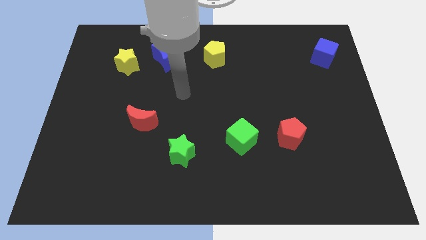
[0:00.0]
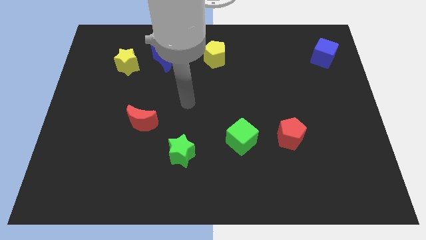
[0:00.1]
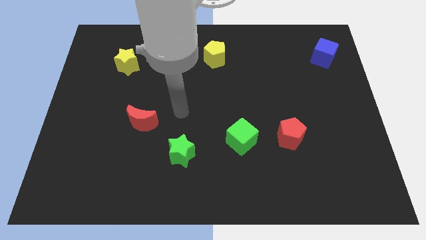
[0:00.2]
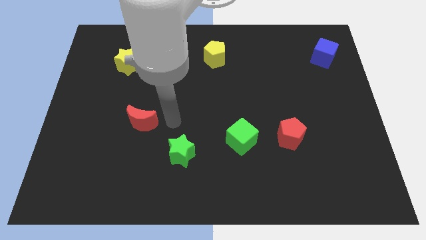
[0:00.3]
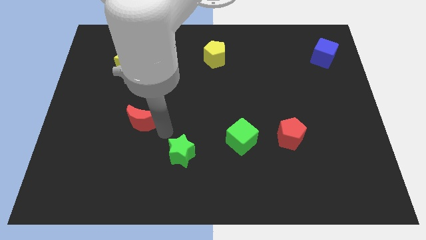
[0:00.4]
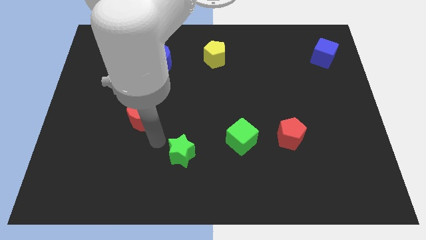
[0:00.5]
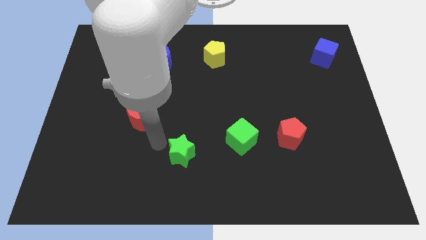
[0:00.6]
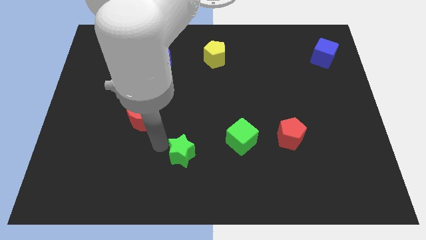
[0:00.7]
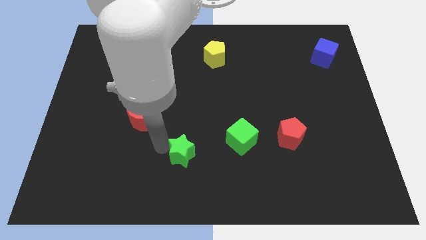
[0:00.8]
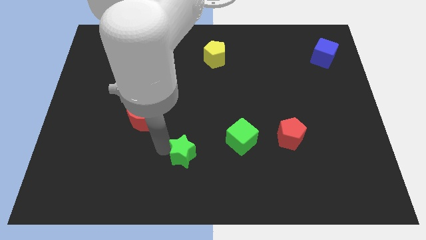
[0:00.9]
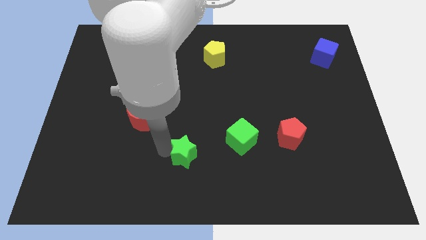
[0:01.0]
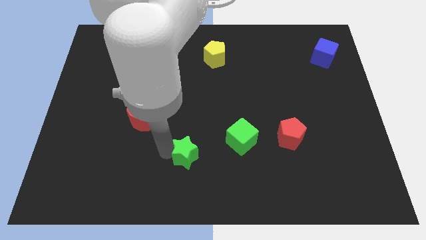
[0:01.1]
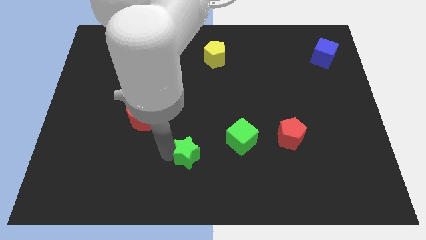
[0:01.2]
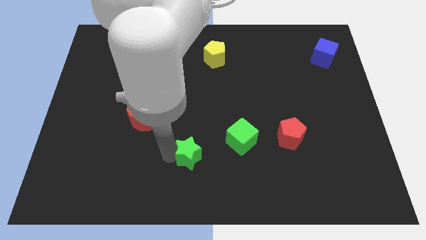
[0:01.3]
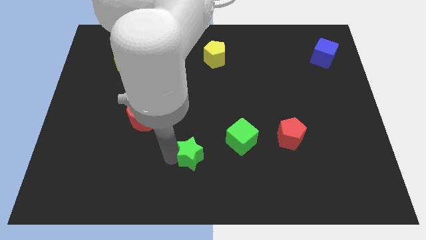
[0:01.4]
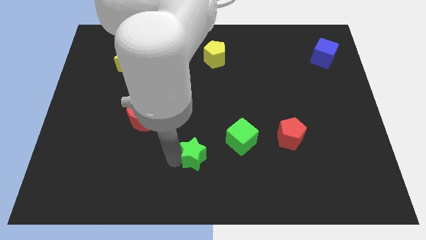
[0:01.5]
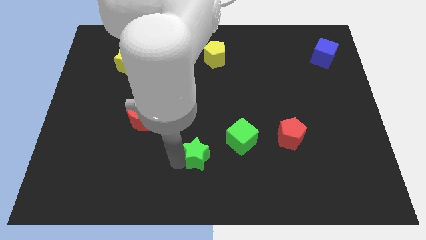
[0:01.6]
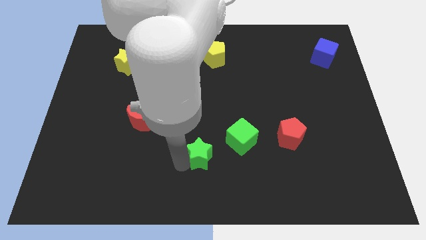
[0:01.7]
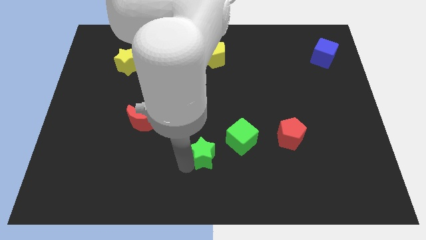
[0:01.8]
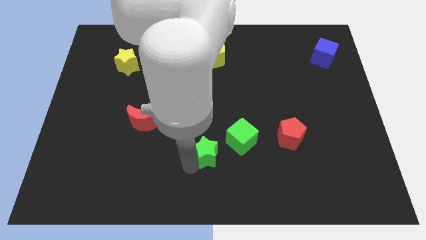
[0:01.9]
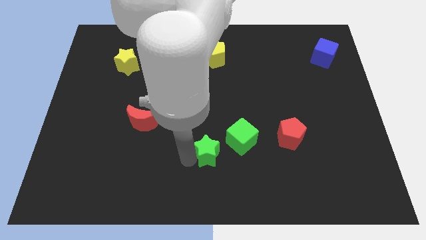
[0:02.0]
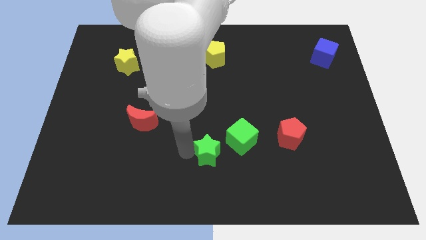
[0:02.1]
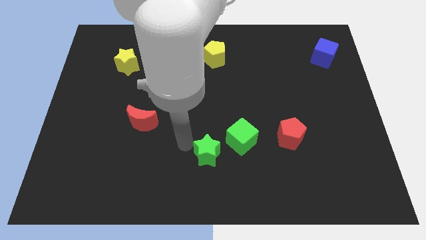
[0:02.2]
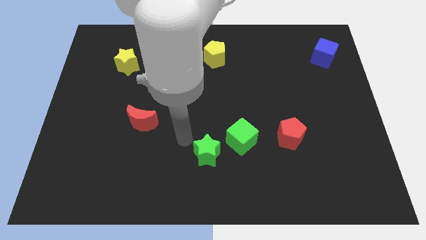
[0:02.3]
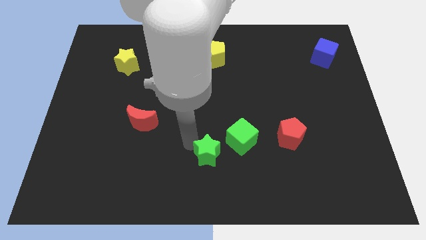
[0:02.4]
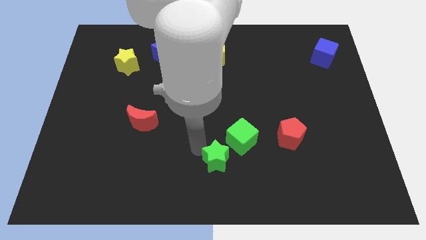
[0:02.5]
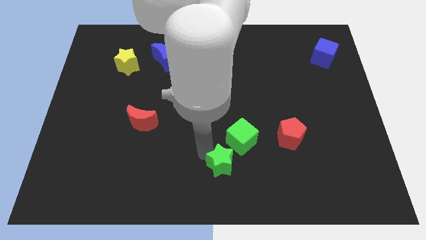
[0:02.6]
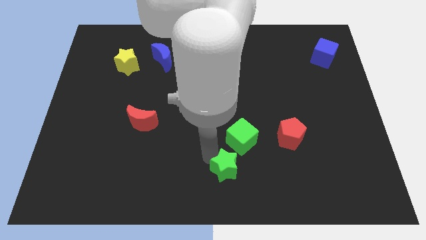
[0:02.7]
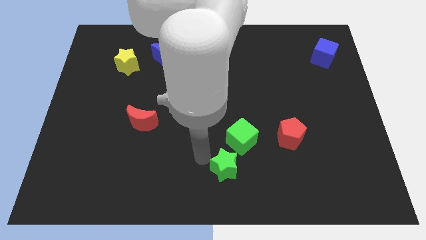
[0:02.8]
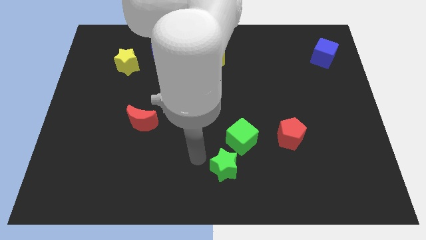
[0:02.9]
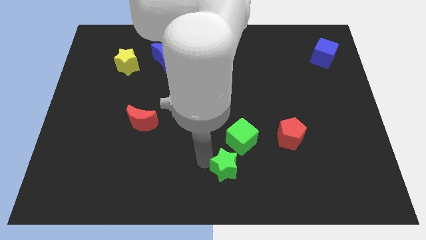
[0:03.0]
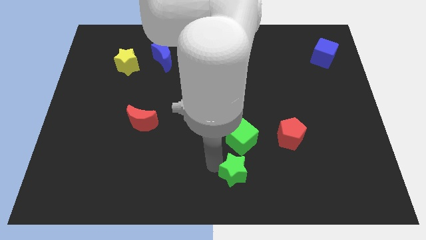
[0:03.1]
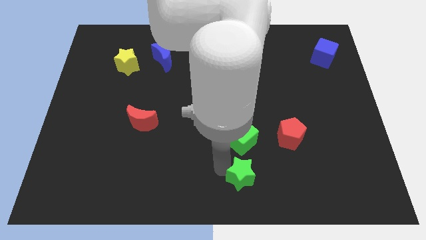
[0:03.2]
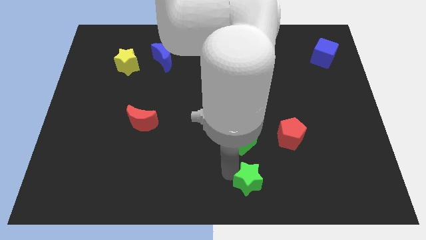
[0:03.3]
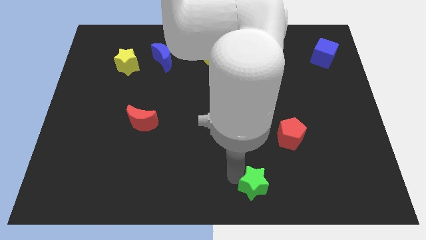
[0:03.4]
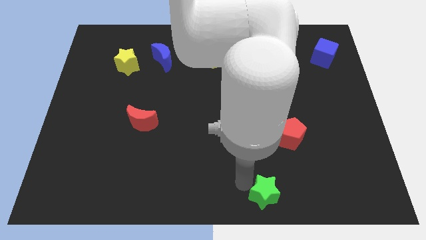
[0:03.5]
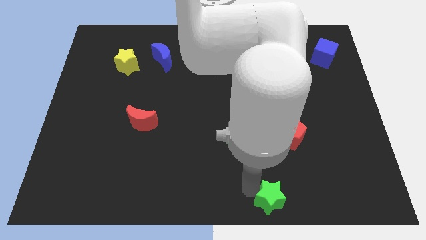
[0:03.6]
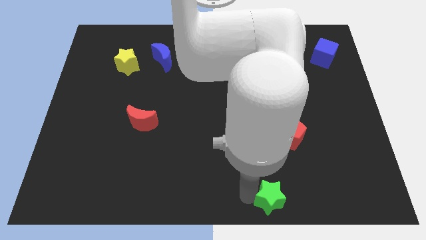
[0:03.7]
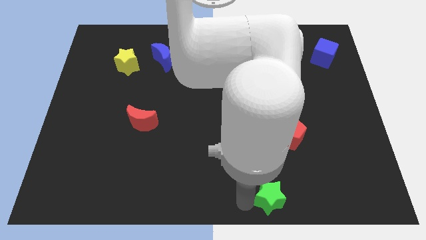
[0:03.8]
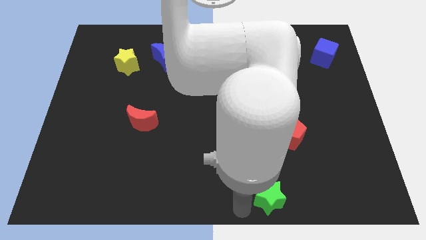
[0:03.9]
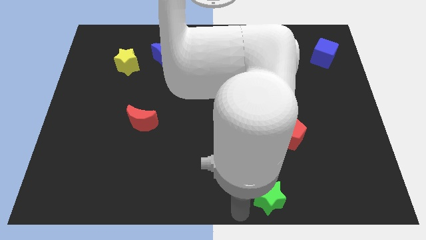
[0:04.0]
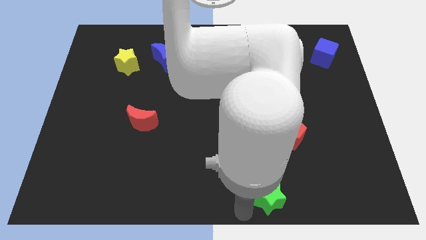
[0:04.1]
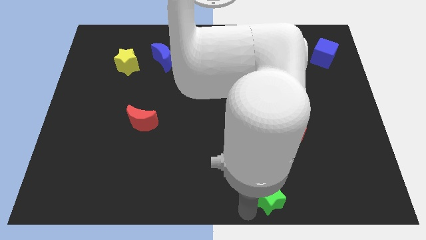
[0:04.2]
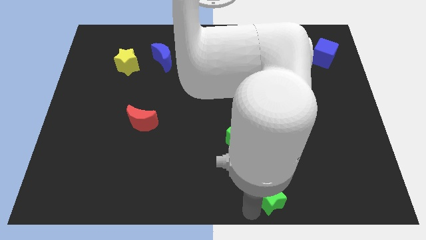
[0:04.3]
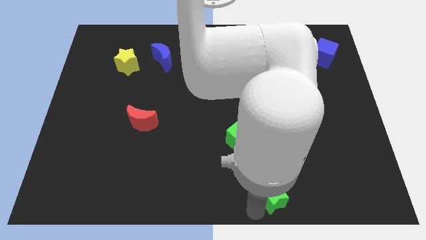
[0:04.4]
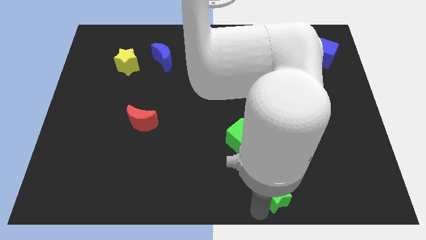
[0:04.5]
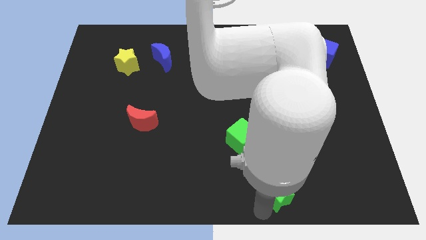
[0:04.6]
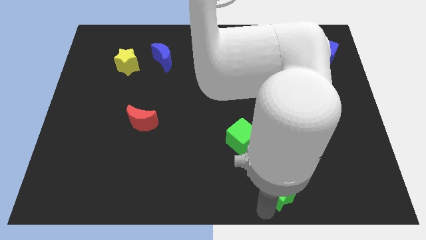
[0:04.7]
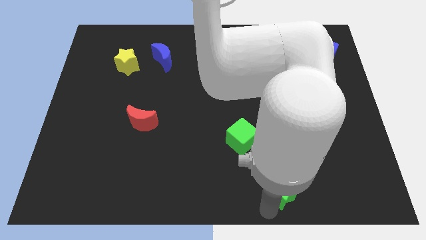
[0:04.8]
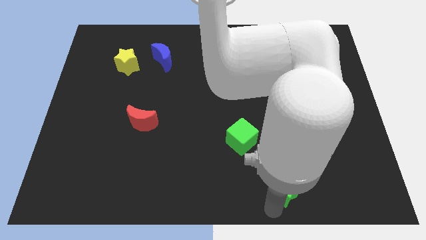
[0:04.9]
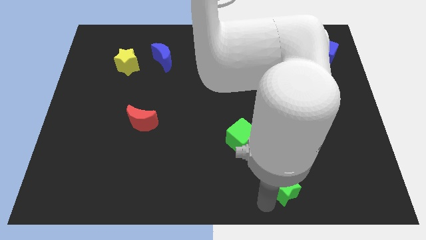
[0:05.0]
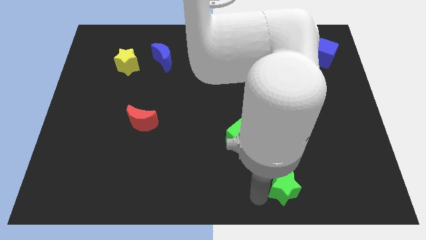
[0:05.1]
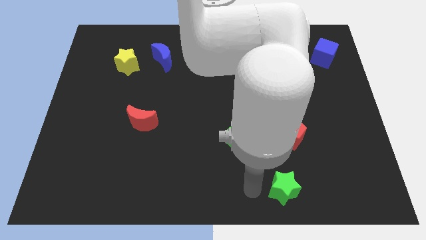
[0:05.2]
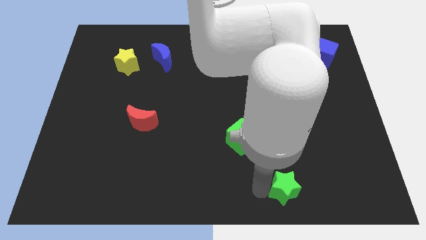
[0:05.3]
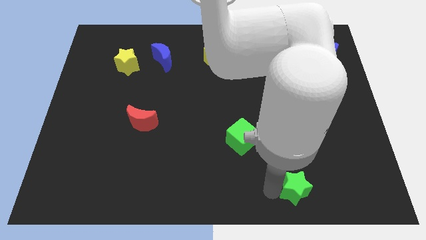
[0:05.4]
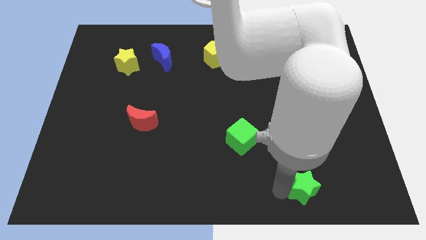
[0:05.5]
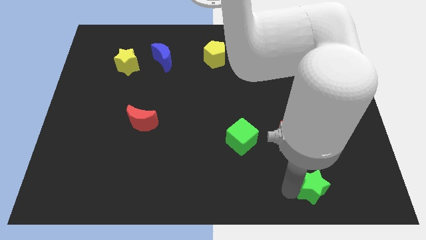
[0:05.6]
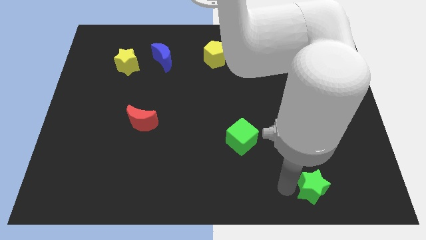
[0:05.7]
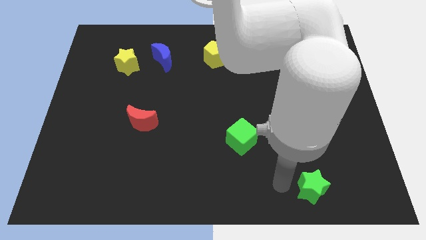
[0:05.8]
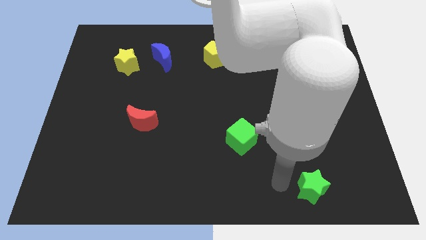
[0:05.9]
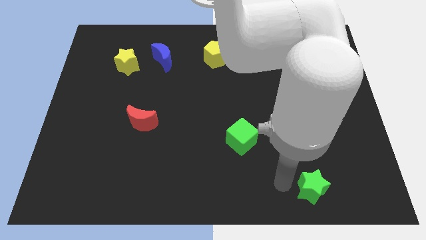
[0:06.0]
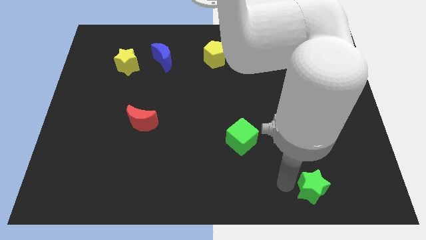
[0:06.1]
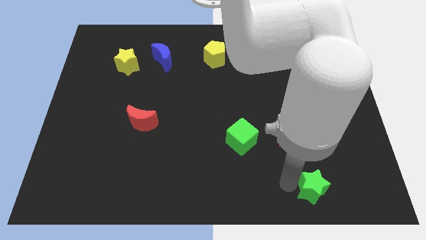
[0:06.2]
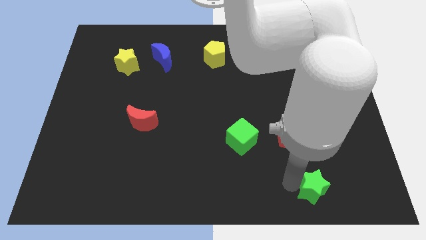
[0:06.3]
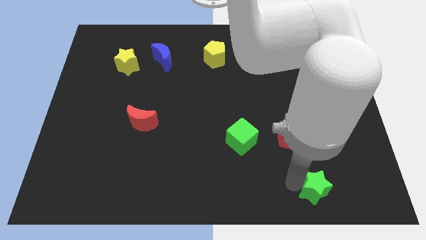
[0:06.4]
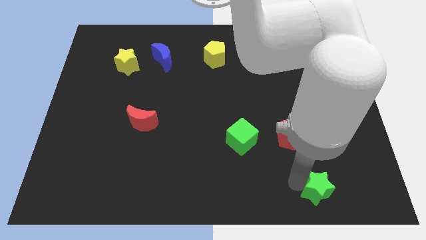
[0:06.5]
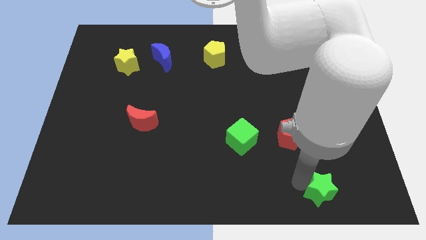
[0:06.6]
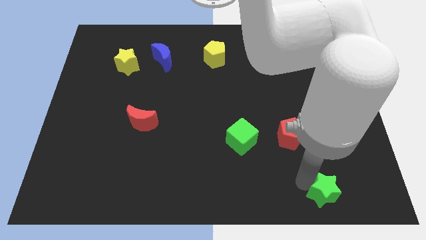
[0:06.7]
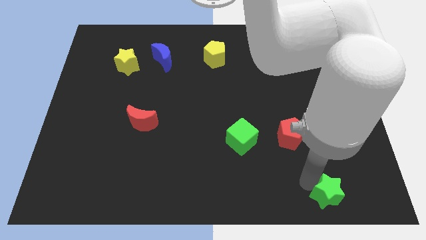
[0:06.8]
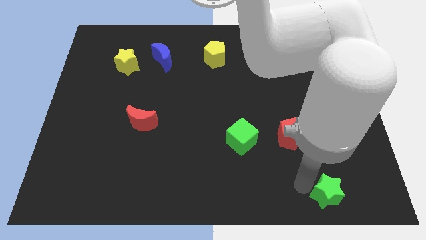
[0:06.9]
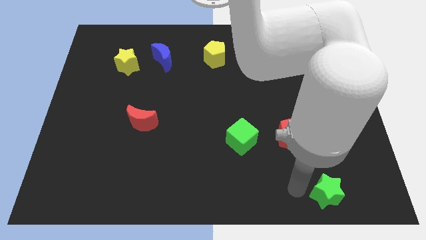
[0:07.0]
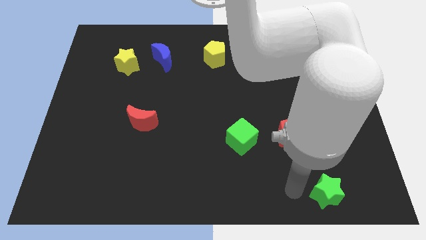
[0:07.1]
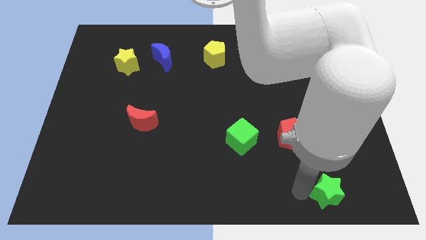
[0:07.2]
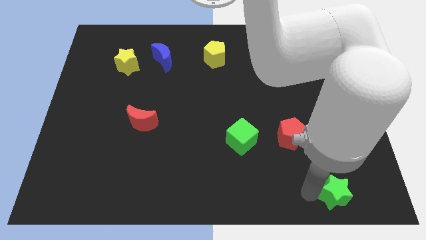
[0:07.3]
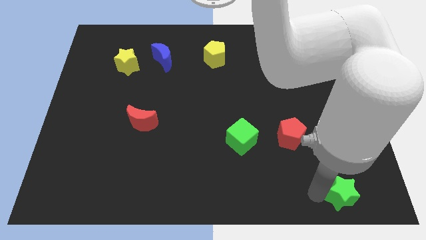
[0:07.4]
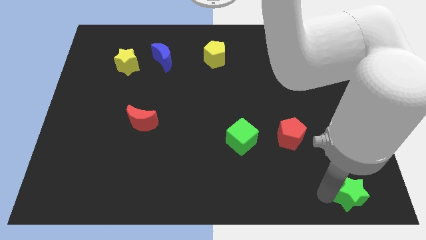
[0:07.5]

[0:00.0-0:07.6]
push the green star to the bottom right

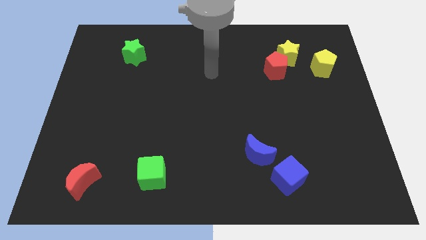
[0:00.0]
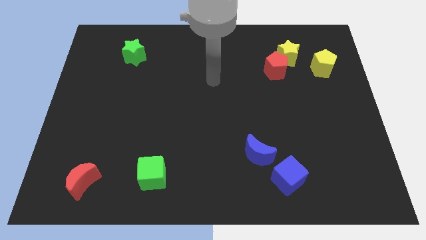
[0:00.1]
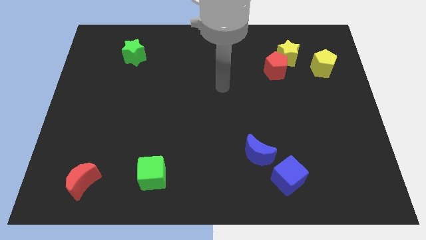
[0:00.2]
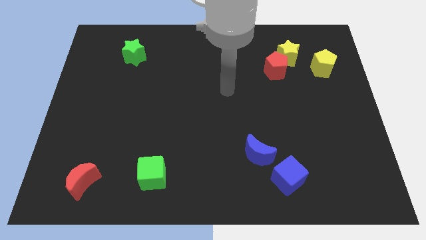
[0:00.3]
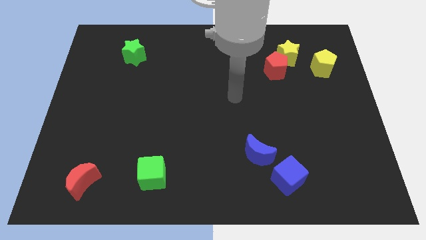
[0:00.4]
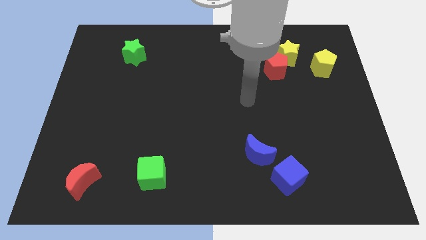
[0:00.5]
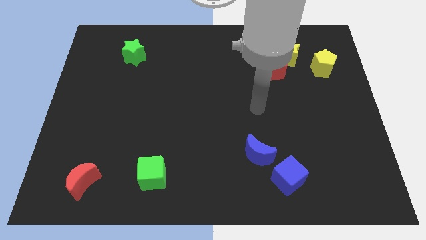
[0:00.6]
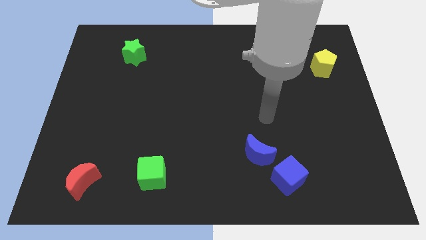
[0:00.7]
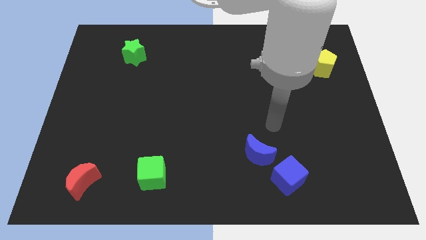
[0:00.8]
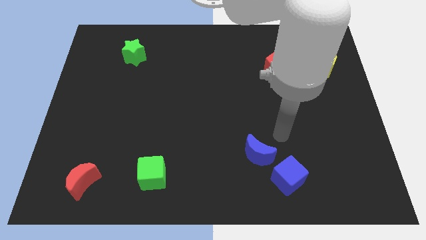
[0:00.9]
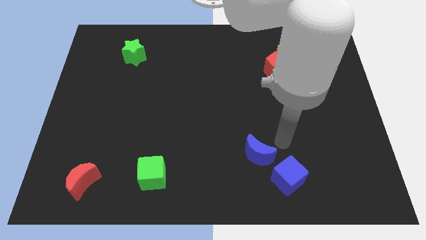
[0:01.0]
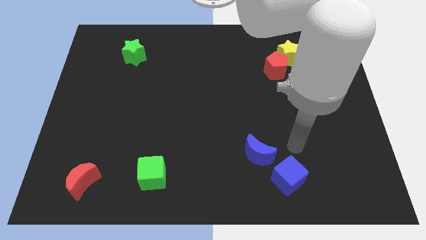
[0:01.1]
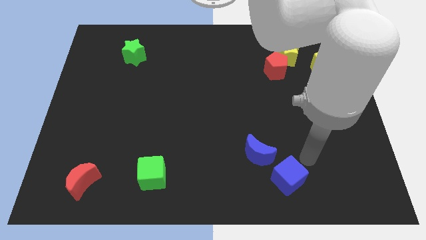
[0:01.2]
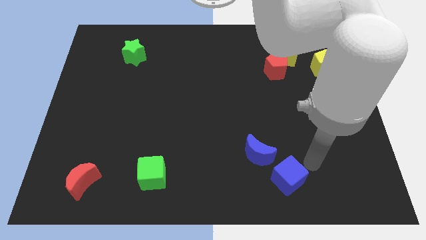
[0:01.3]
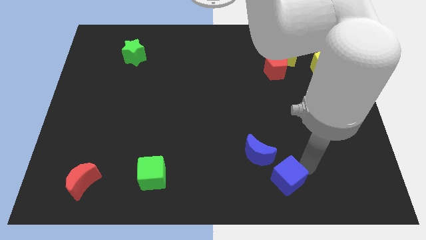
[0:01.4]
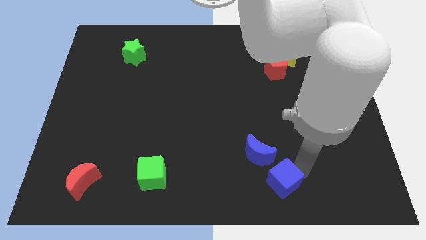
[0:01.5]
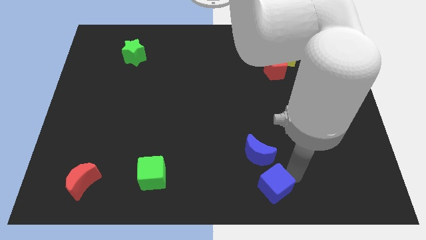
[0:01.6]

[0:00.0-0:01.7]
put the blue cube to the bottom side
